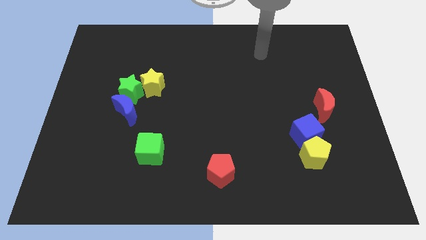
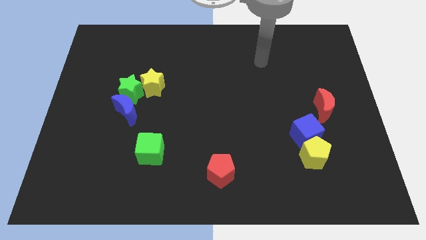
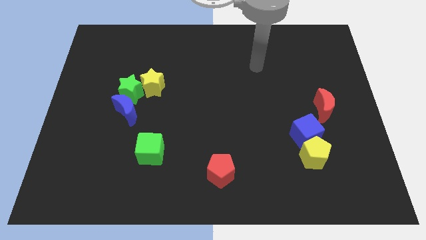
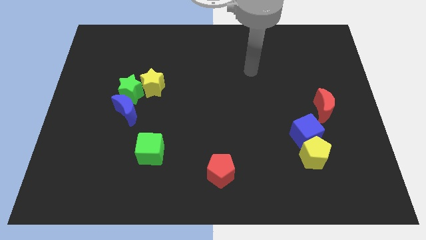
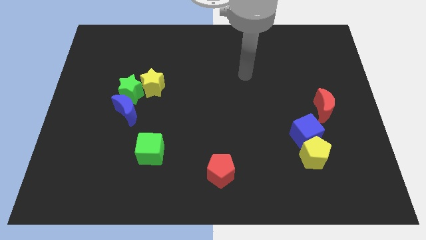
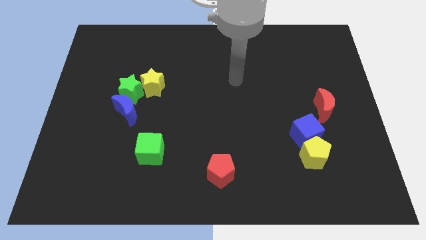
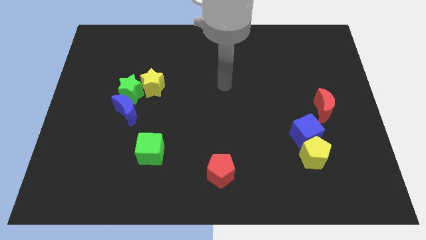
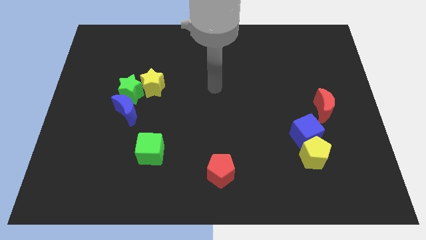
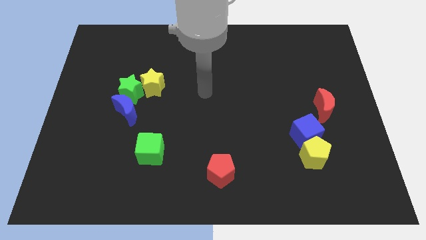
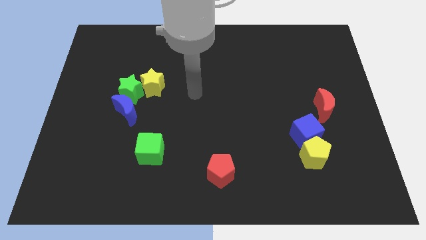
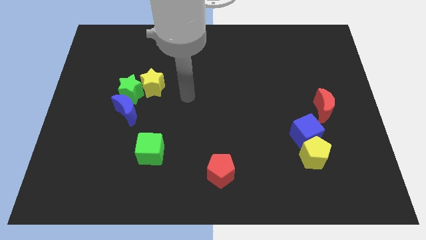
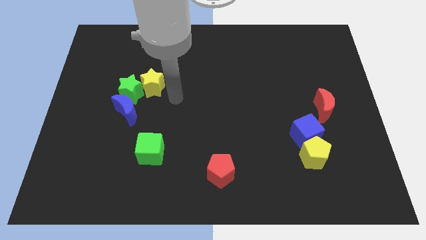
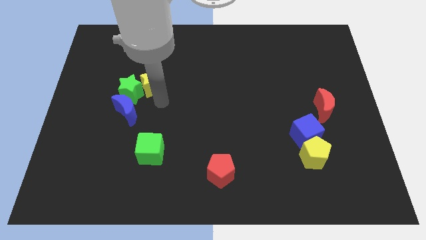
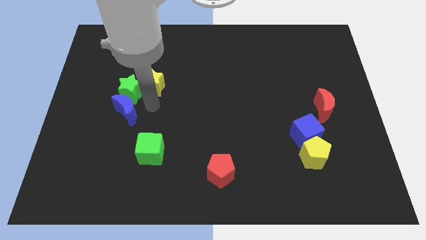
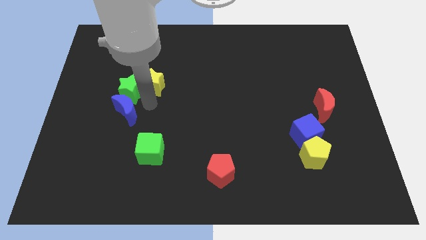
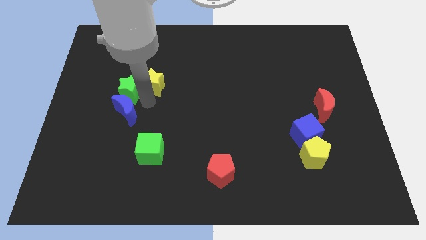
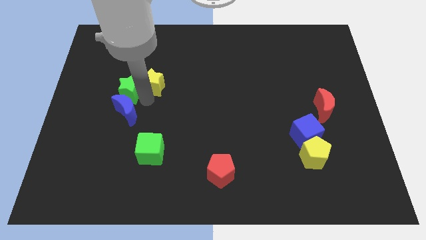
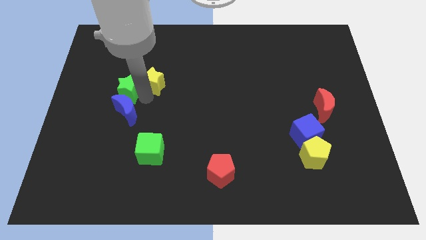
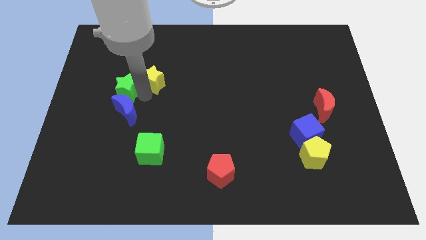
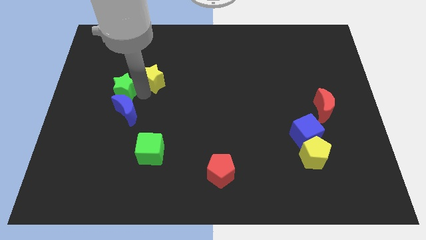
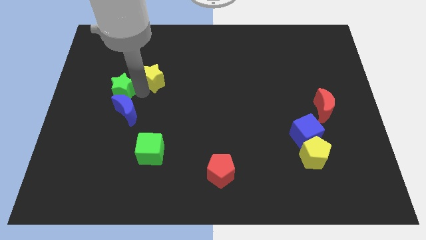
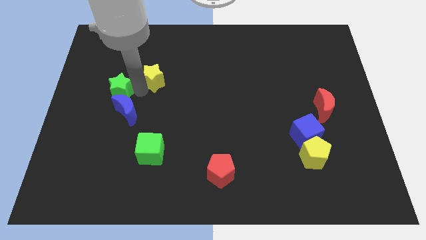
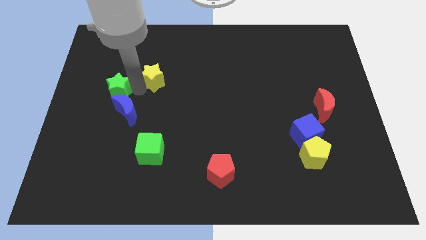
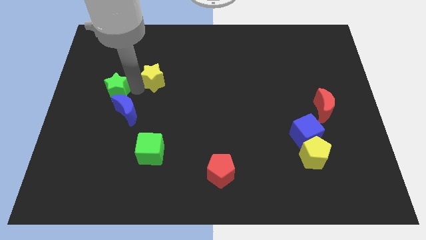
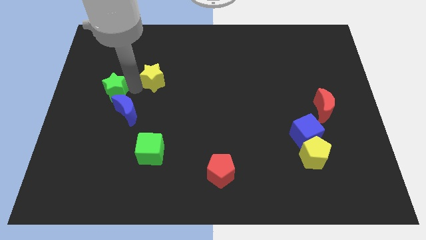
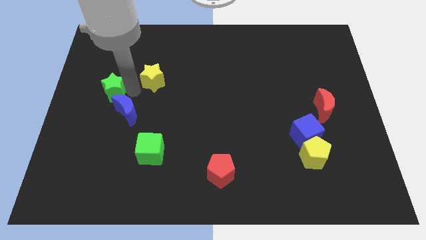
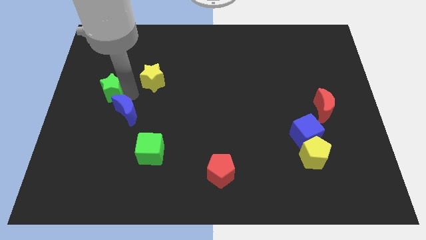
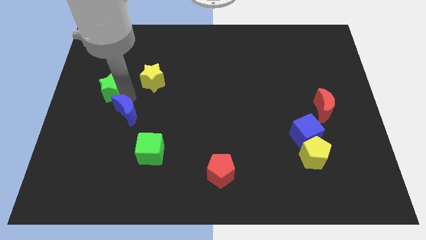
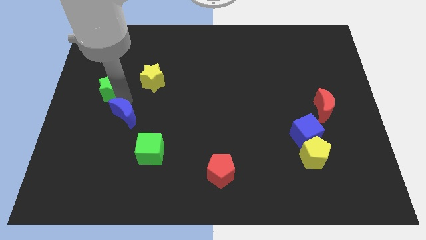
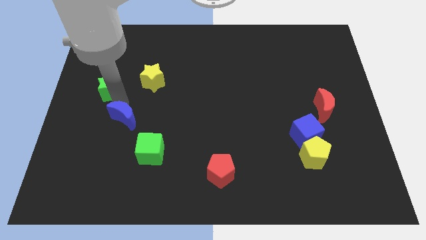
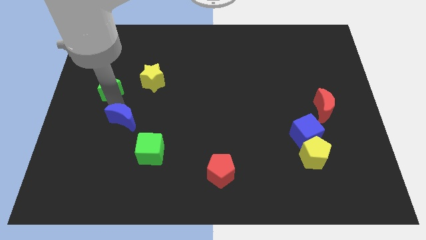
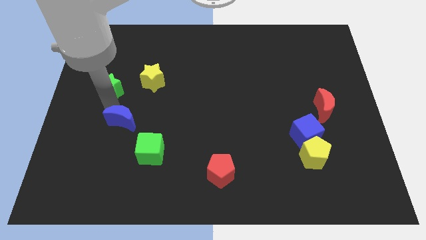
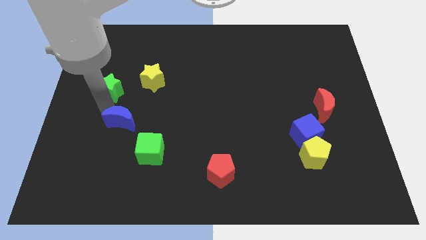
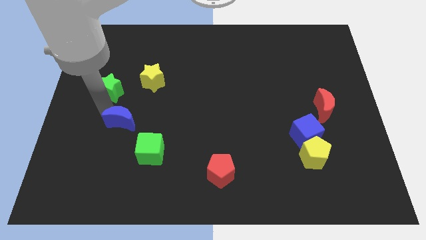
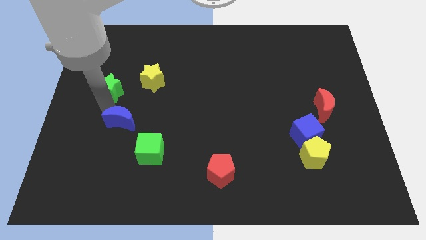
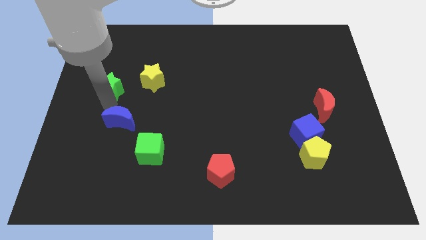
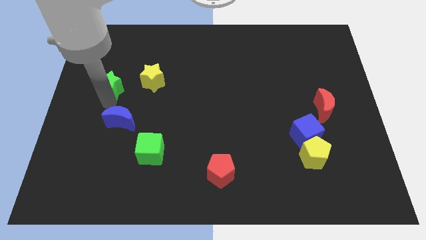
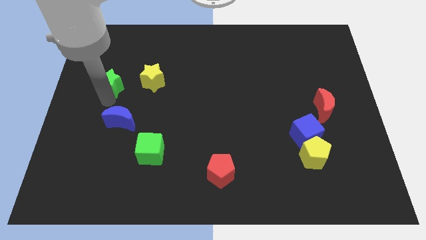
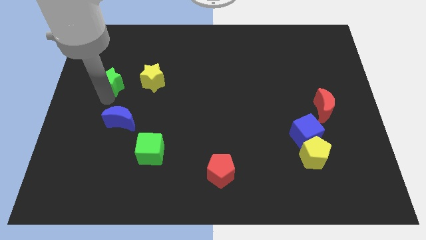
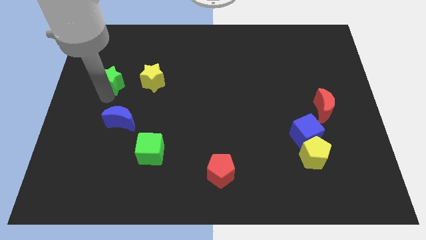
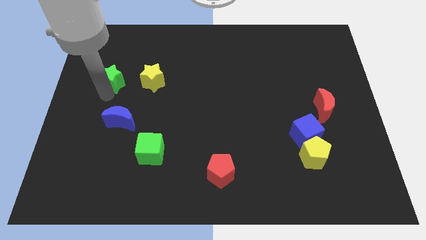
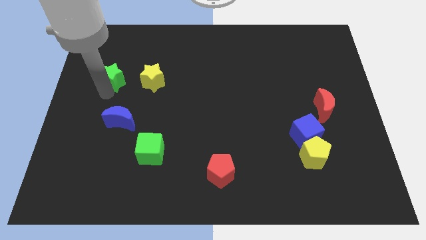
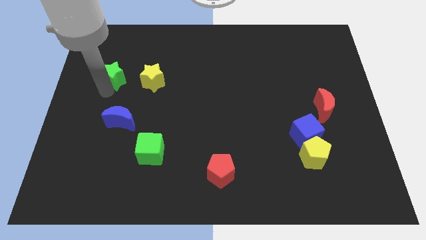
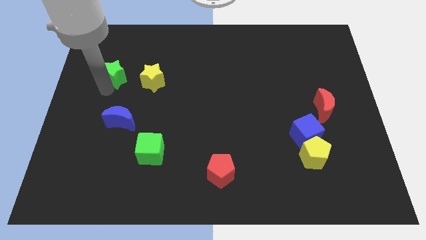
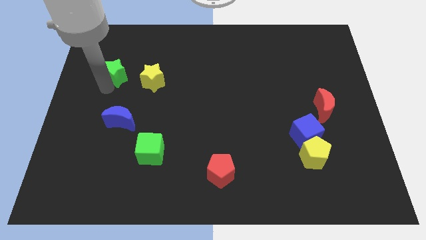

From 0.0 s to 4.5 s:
separate the green star from the yellow star and blue moon

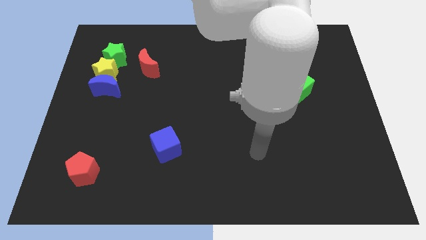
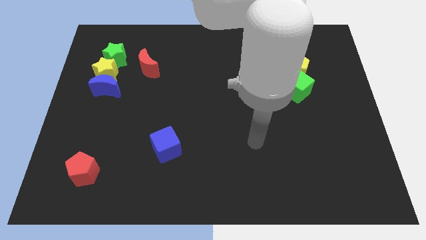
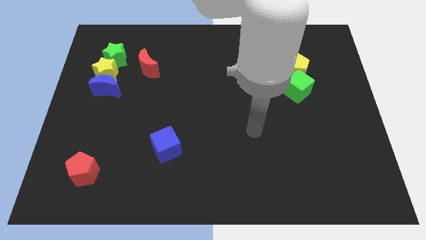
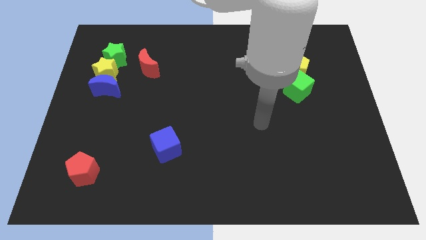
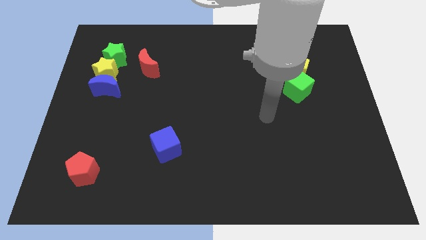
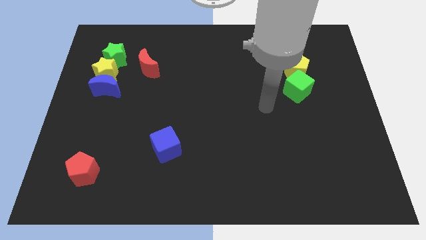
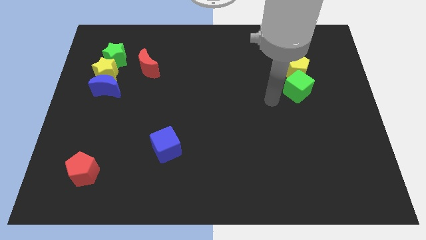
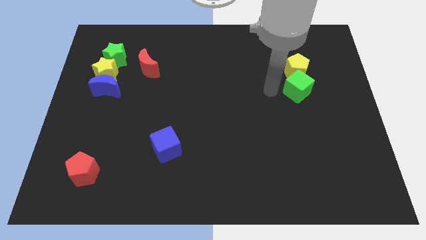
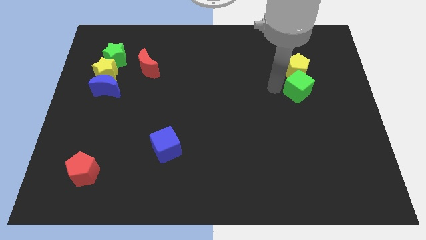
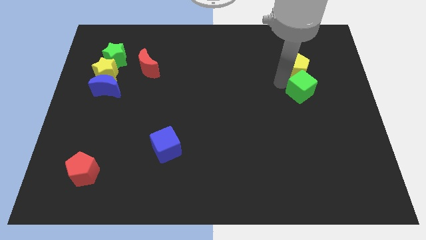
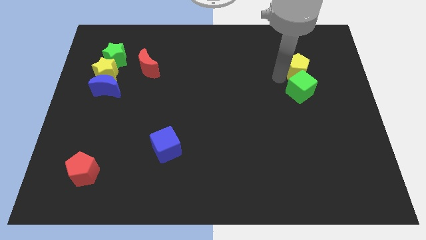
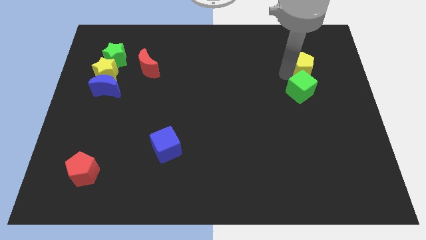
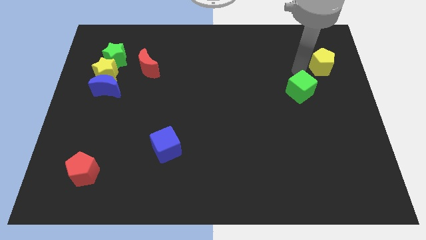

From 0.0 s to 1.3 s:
move the green cube away from the yellow pentagon

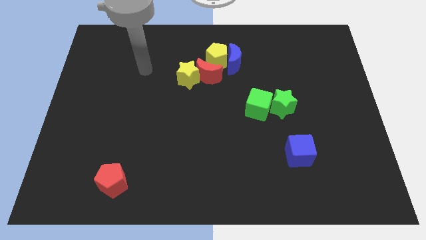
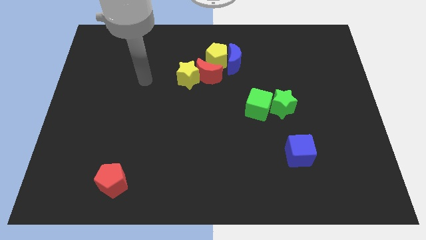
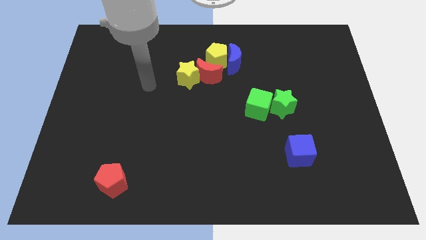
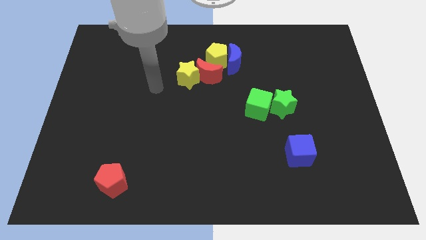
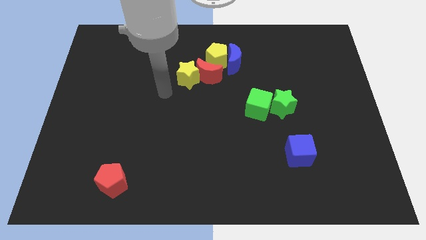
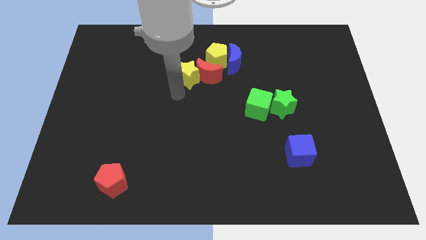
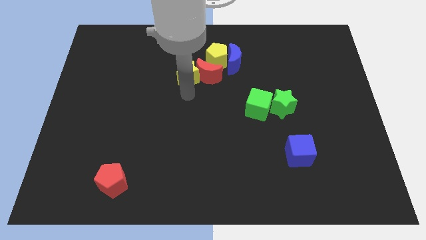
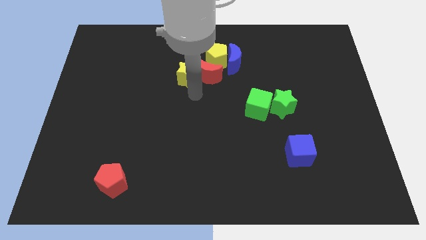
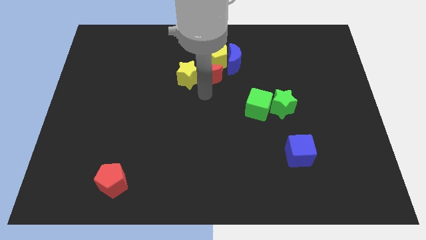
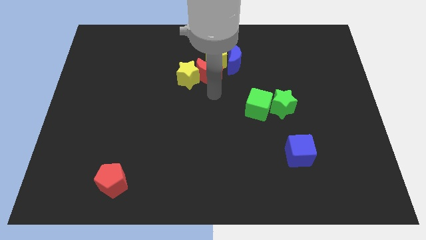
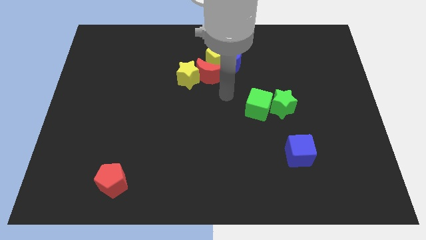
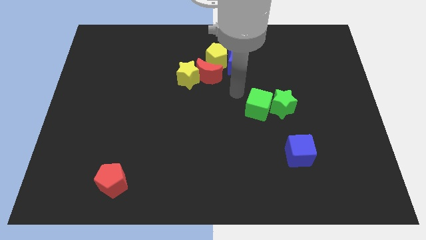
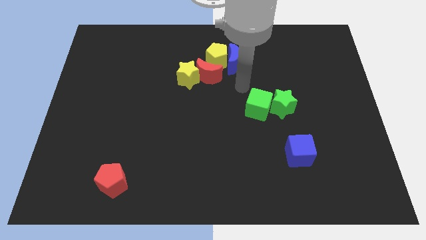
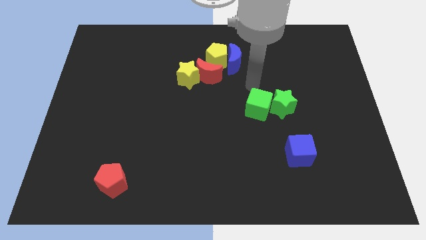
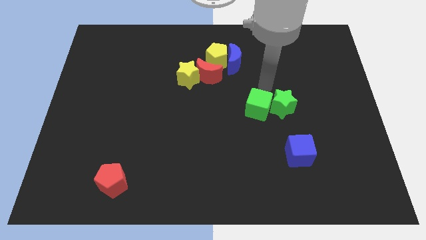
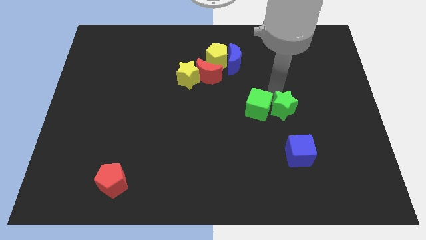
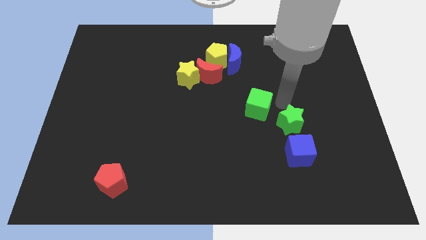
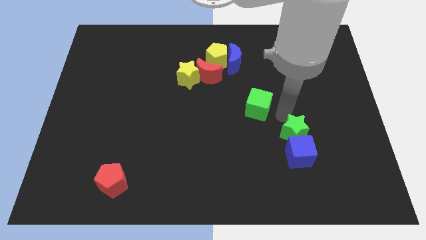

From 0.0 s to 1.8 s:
separate the green cube from the green star

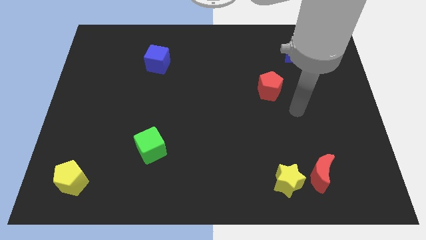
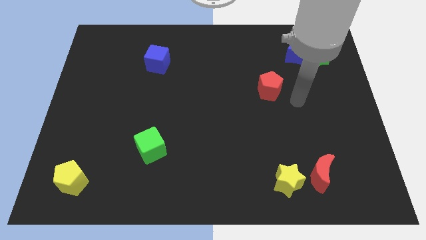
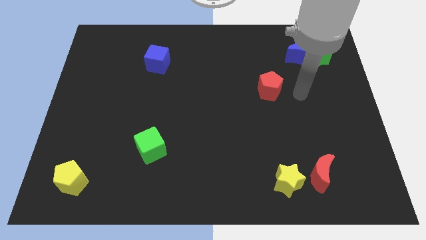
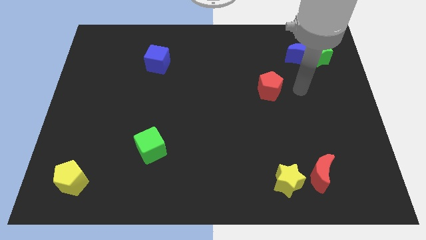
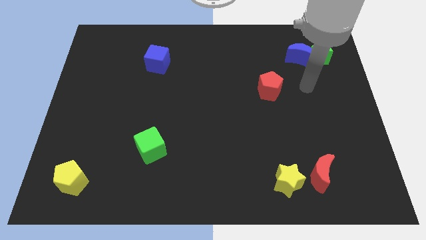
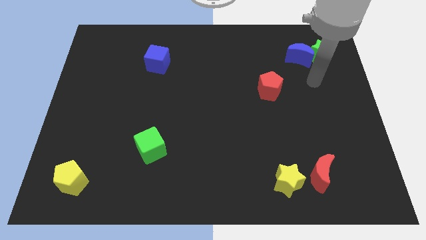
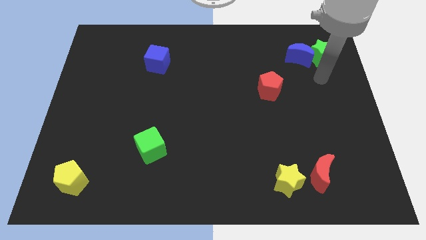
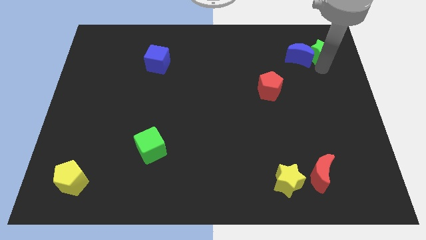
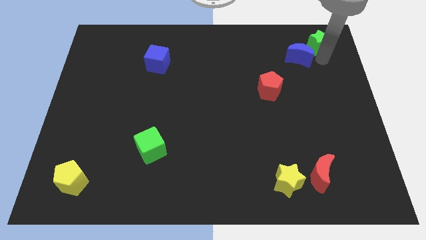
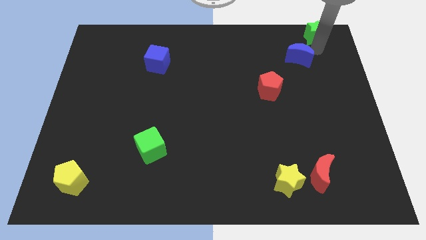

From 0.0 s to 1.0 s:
separate the blue moon from the green star

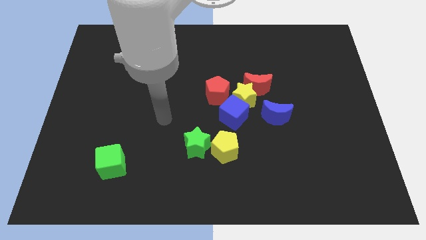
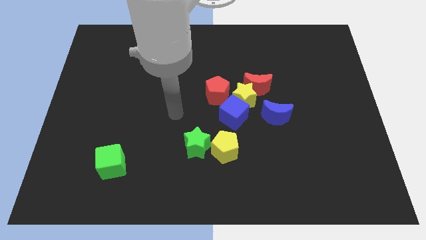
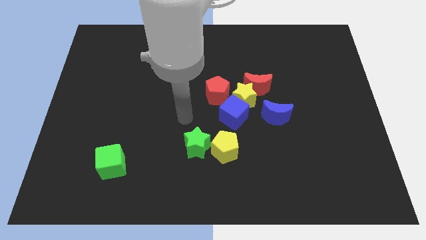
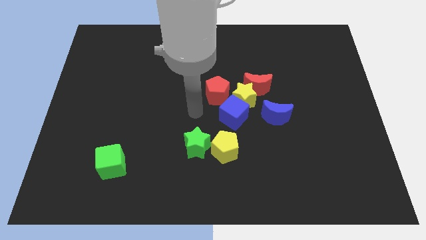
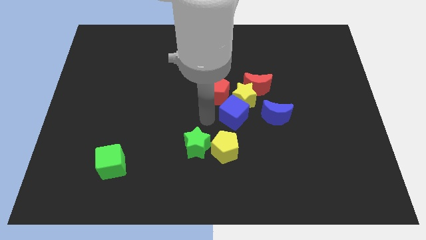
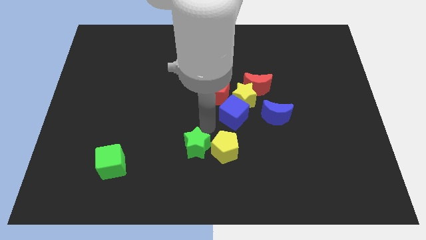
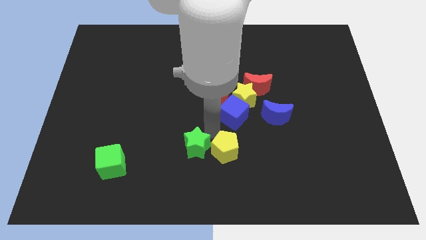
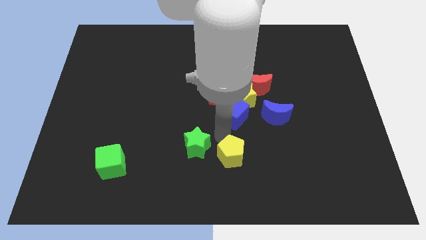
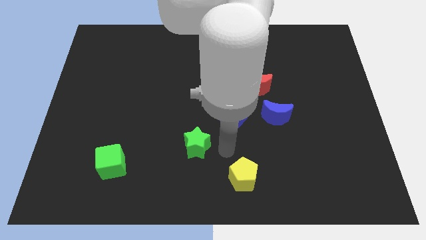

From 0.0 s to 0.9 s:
move the green star away from the yellow pentagon
